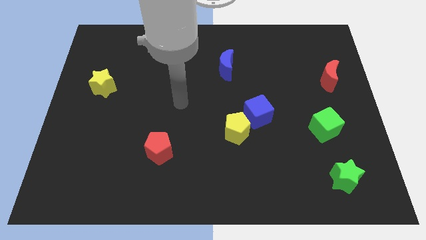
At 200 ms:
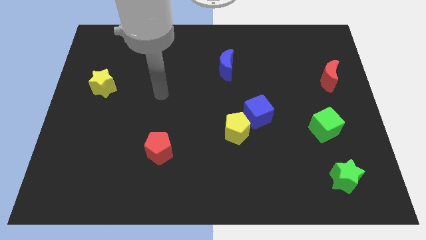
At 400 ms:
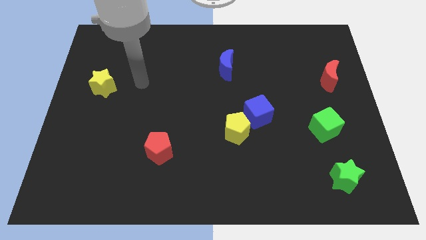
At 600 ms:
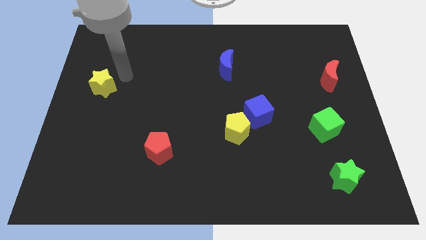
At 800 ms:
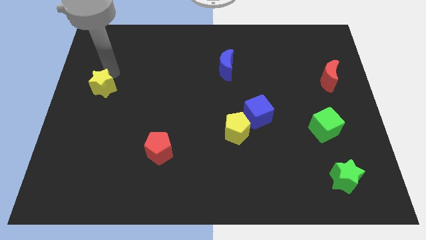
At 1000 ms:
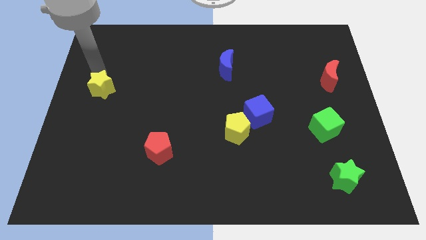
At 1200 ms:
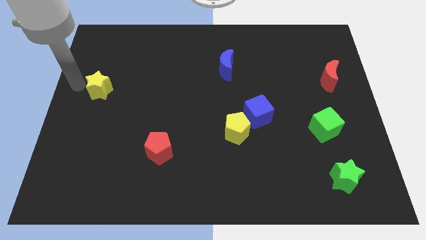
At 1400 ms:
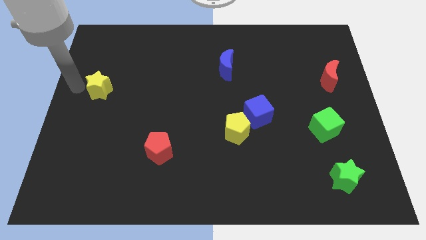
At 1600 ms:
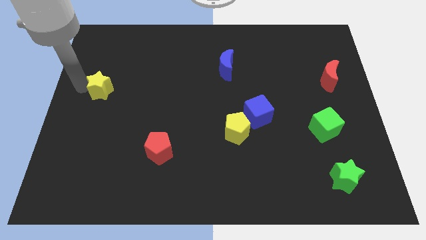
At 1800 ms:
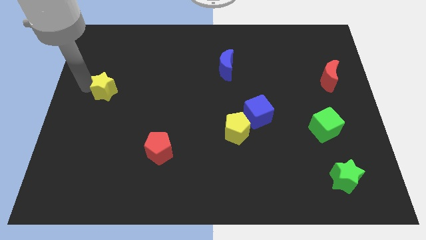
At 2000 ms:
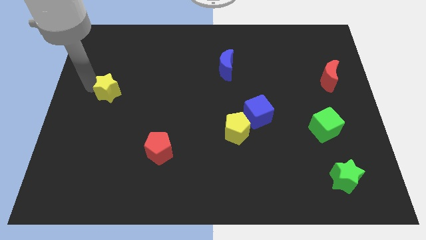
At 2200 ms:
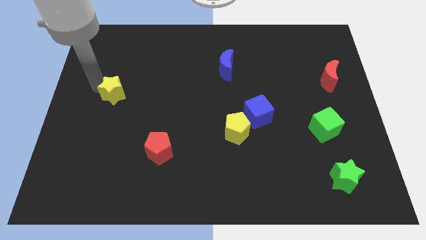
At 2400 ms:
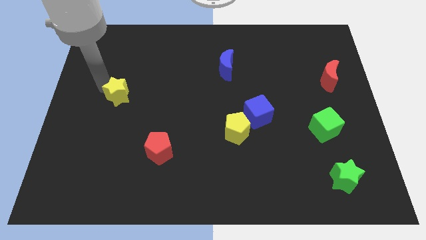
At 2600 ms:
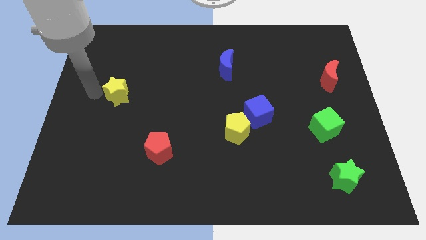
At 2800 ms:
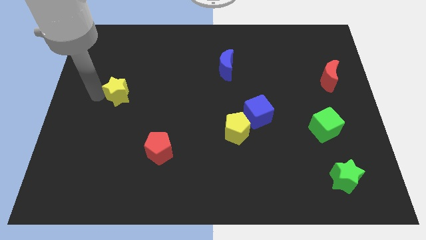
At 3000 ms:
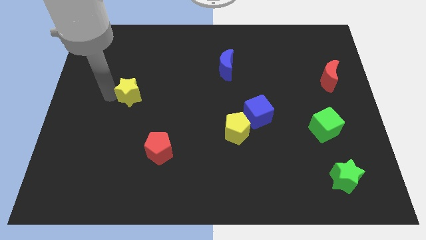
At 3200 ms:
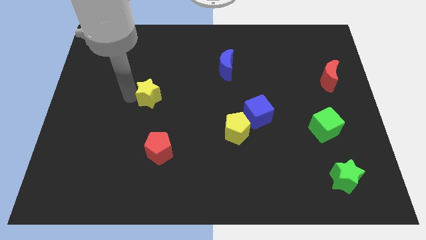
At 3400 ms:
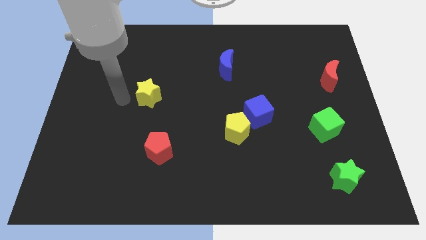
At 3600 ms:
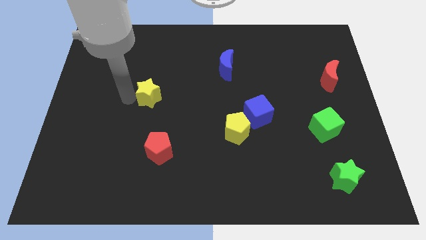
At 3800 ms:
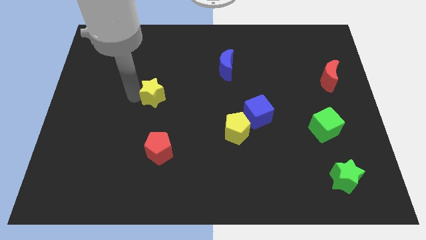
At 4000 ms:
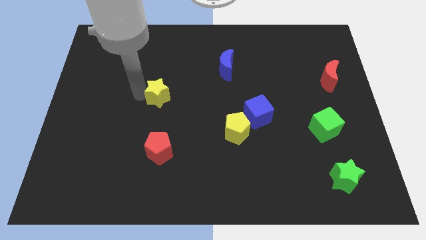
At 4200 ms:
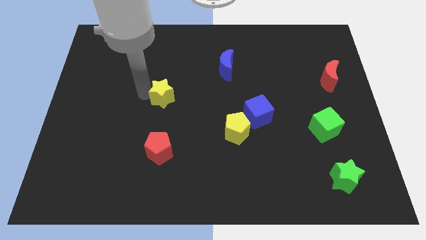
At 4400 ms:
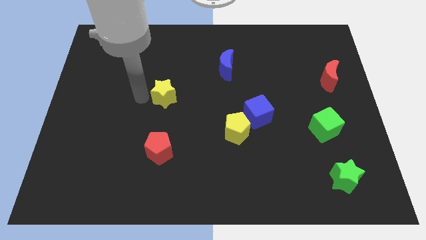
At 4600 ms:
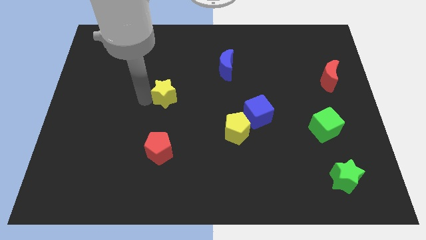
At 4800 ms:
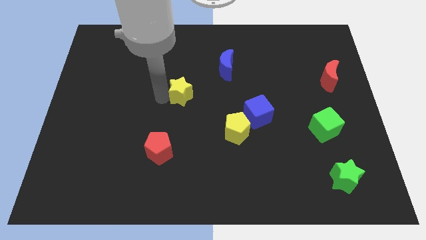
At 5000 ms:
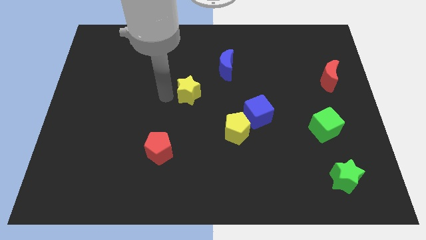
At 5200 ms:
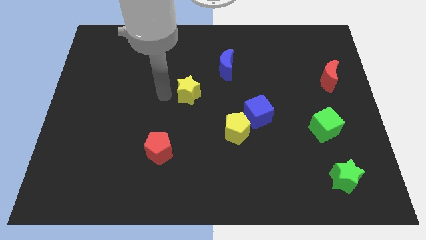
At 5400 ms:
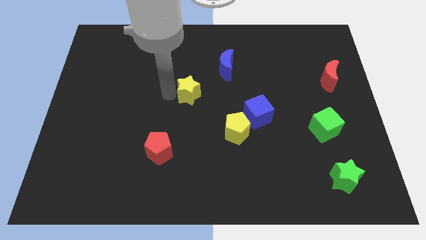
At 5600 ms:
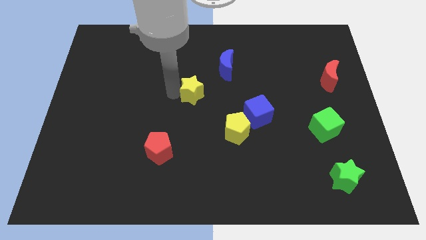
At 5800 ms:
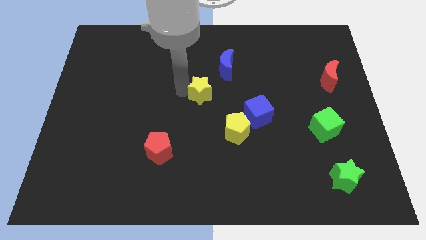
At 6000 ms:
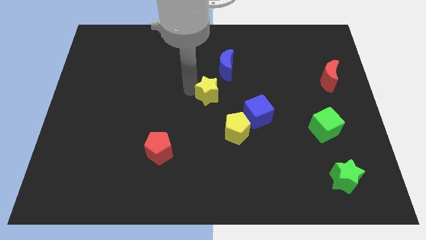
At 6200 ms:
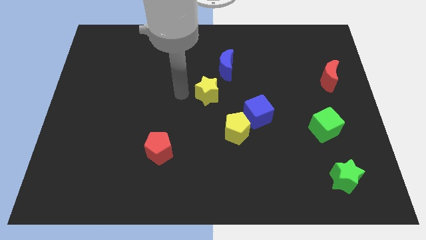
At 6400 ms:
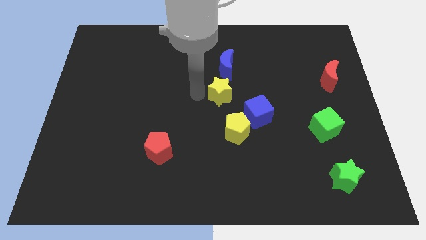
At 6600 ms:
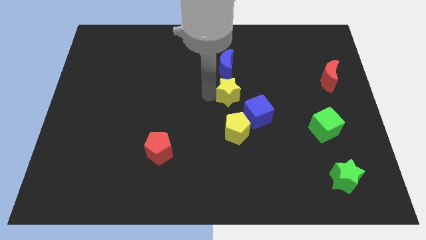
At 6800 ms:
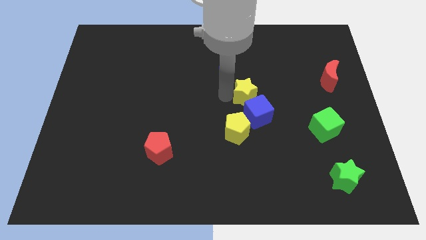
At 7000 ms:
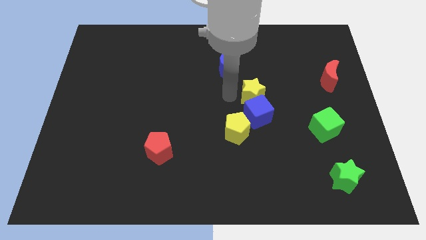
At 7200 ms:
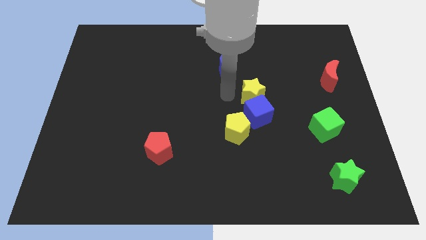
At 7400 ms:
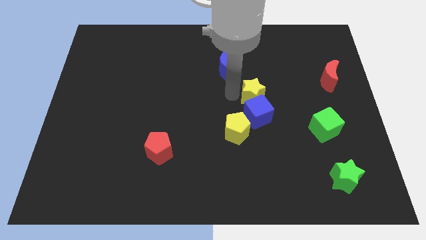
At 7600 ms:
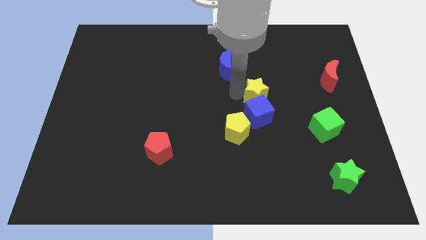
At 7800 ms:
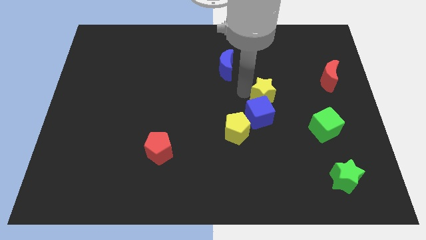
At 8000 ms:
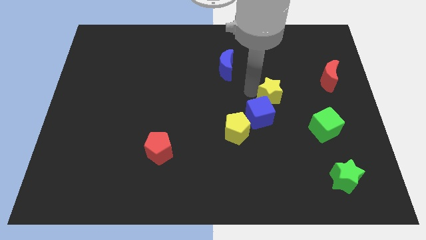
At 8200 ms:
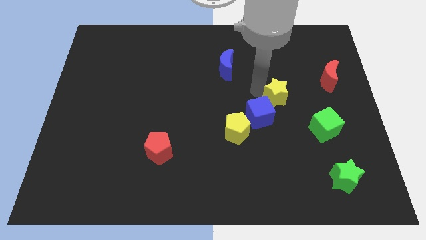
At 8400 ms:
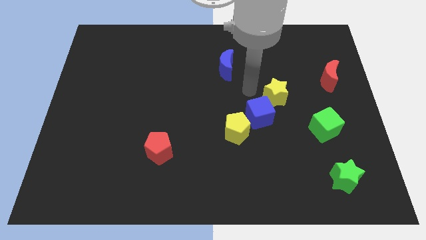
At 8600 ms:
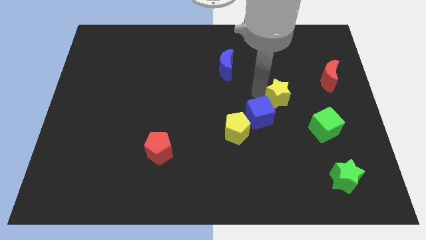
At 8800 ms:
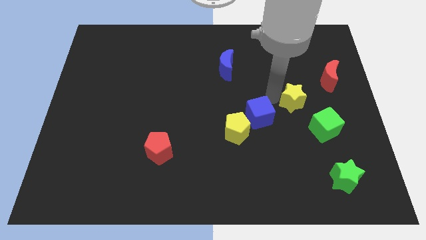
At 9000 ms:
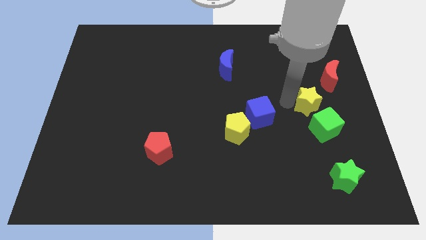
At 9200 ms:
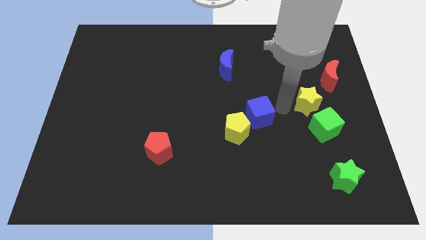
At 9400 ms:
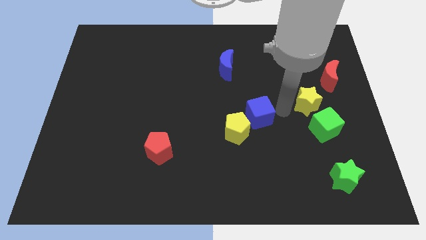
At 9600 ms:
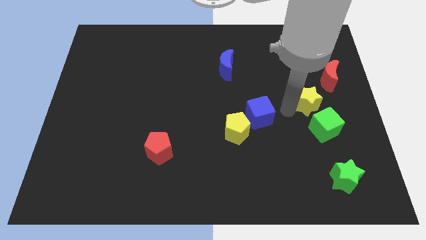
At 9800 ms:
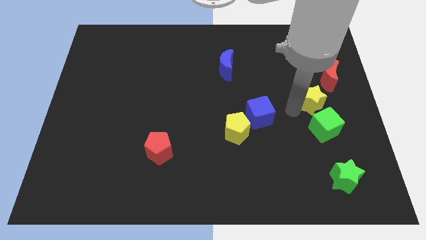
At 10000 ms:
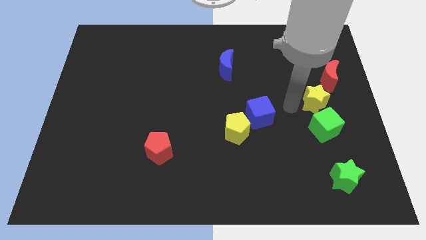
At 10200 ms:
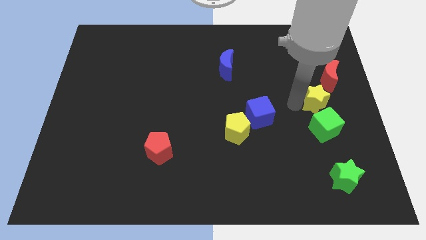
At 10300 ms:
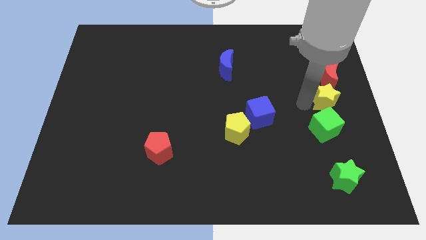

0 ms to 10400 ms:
move the yellow star to the center right

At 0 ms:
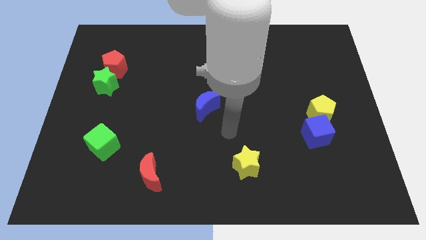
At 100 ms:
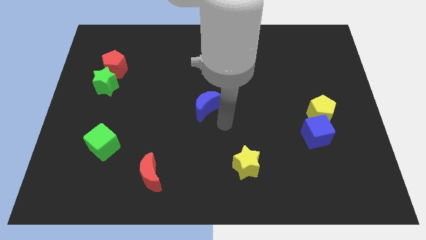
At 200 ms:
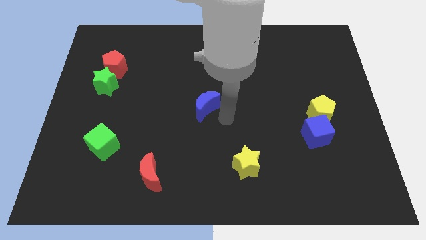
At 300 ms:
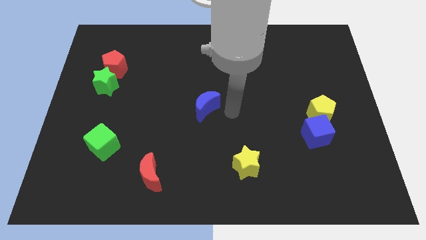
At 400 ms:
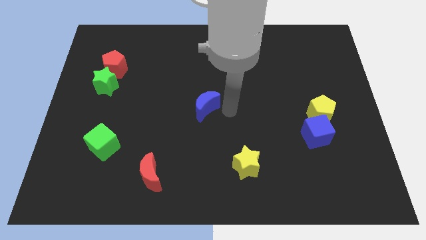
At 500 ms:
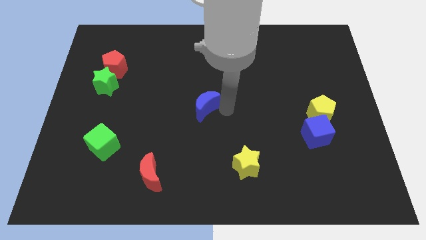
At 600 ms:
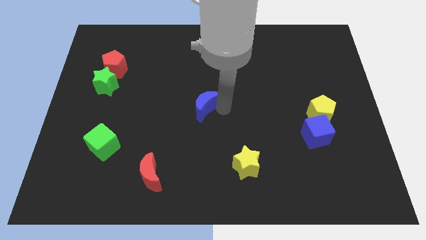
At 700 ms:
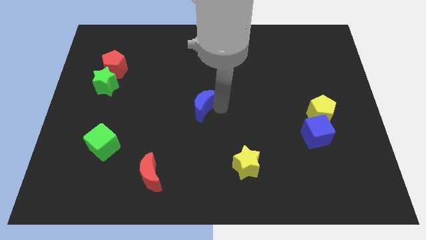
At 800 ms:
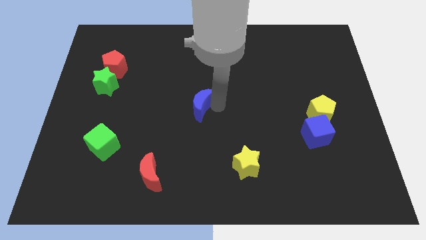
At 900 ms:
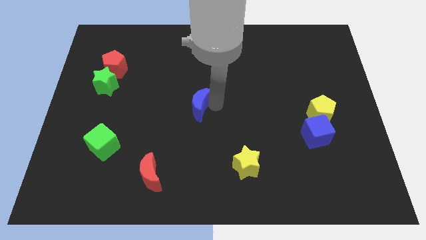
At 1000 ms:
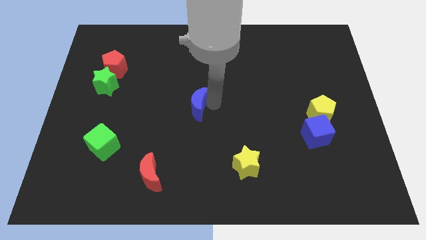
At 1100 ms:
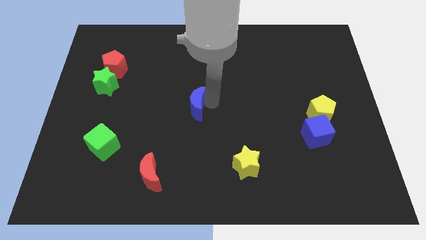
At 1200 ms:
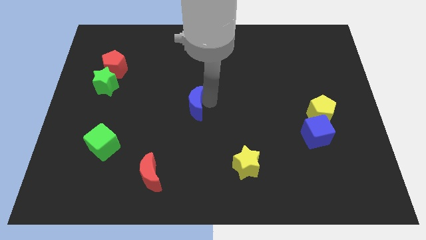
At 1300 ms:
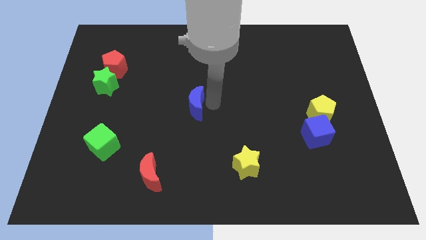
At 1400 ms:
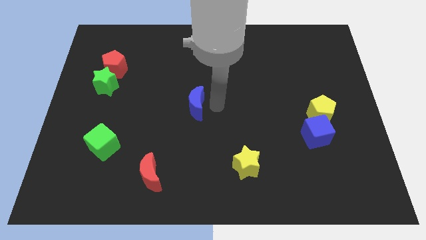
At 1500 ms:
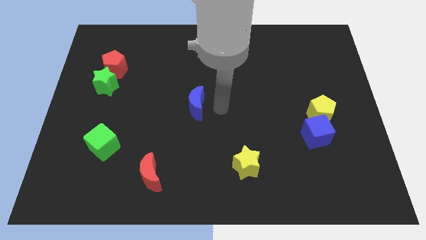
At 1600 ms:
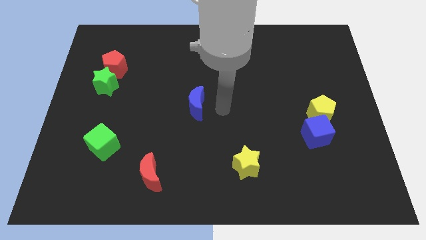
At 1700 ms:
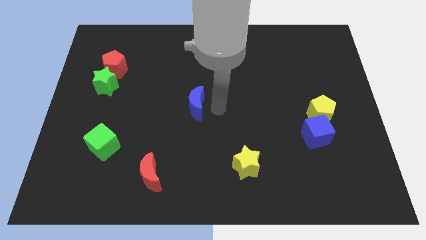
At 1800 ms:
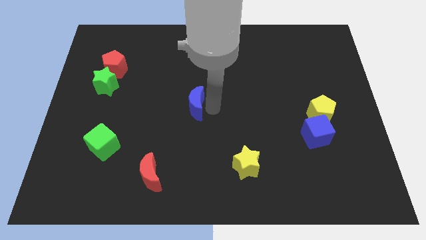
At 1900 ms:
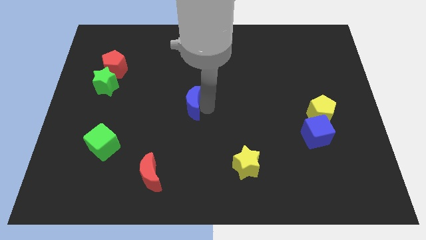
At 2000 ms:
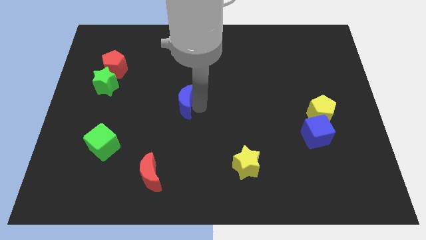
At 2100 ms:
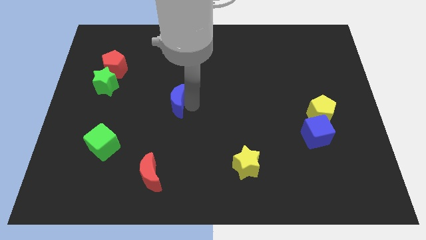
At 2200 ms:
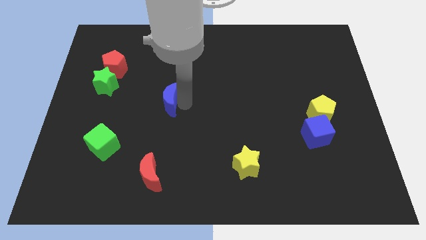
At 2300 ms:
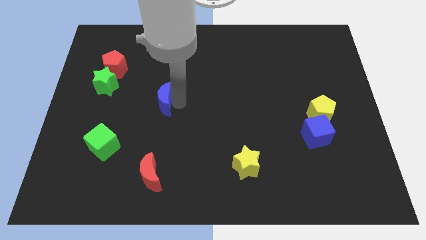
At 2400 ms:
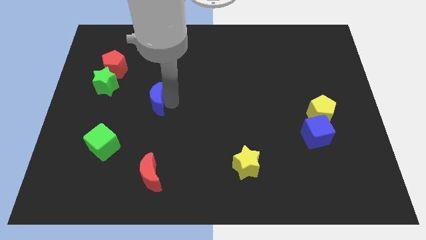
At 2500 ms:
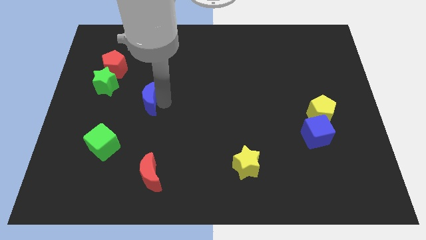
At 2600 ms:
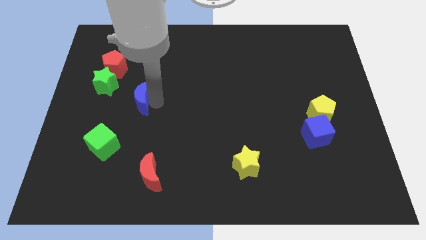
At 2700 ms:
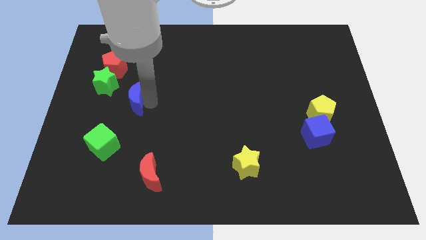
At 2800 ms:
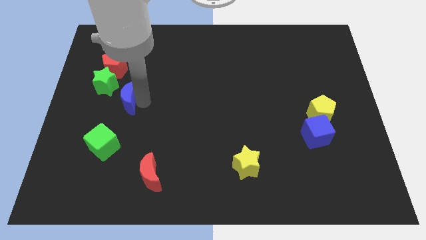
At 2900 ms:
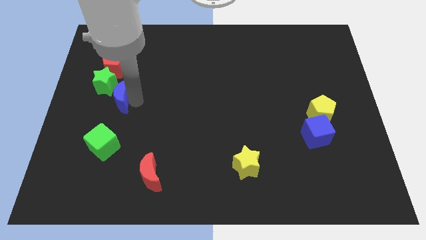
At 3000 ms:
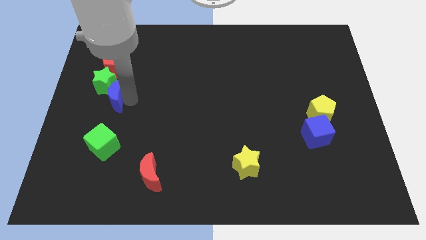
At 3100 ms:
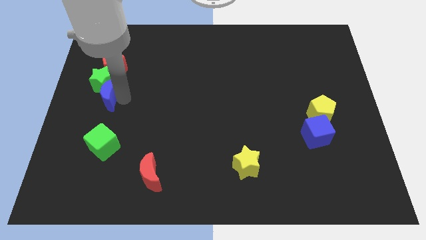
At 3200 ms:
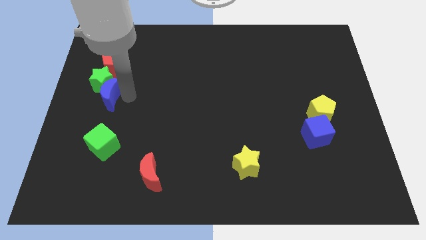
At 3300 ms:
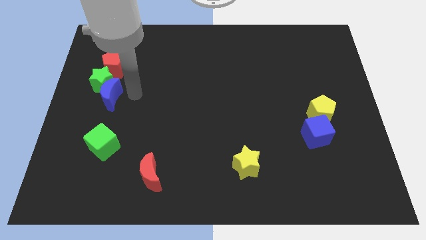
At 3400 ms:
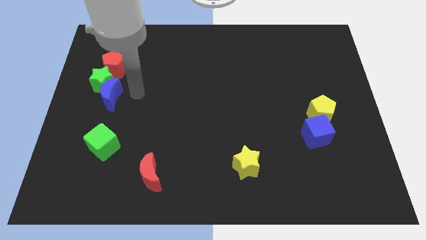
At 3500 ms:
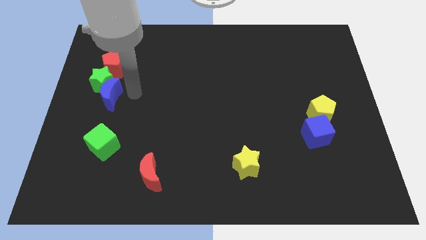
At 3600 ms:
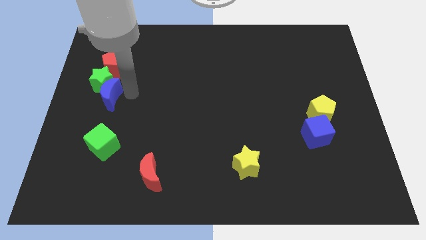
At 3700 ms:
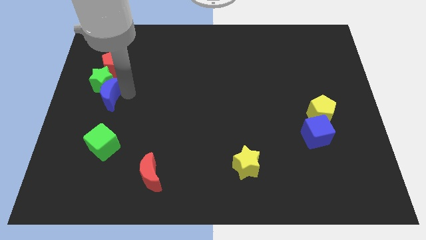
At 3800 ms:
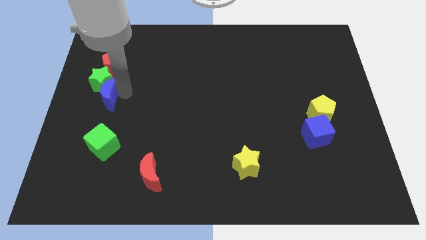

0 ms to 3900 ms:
put the blue moon to the center left
